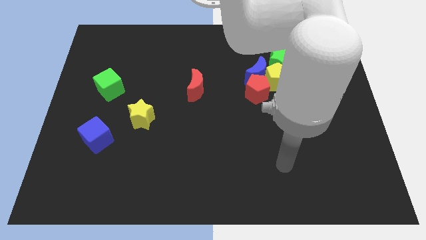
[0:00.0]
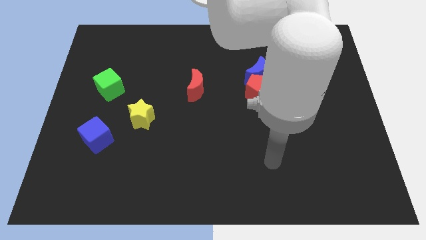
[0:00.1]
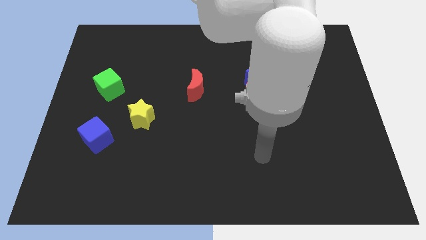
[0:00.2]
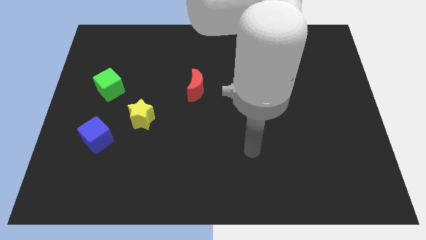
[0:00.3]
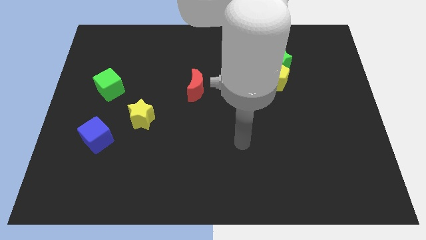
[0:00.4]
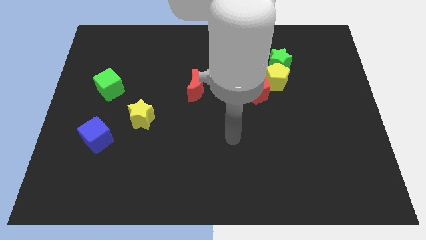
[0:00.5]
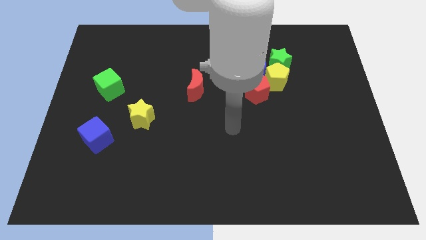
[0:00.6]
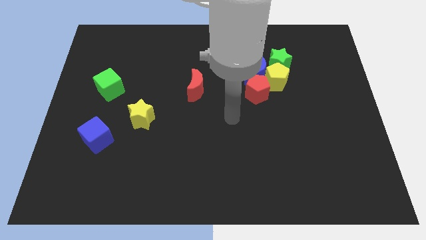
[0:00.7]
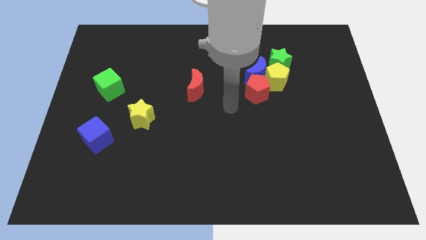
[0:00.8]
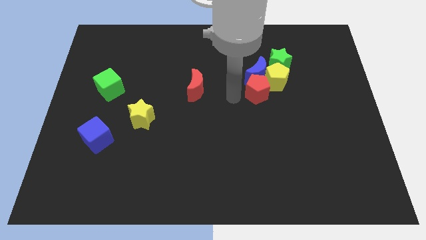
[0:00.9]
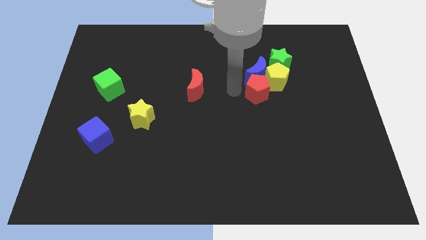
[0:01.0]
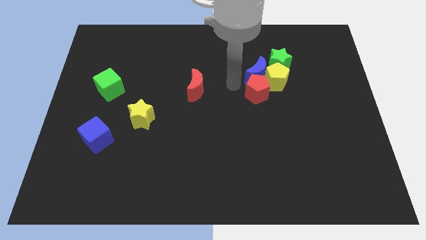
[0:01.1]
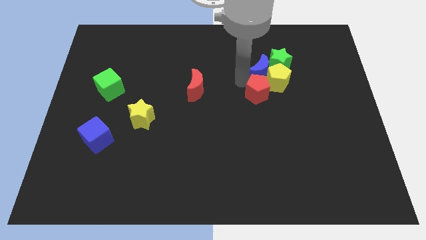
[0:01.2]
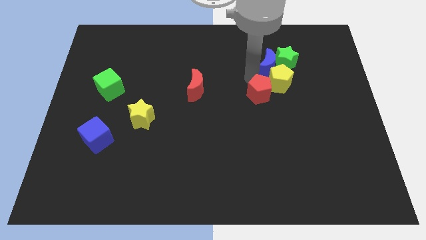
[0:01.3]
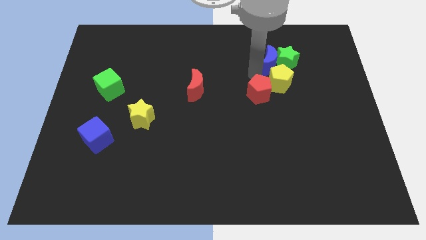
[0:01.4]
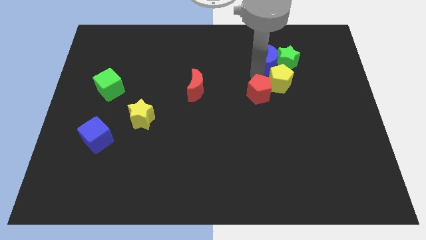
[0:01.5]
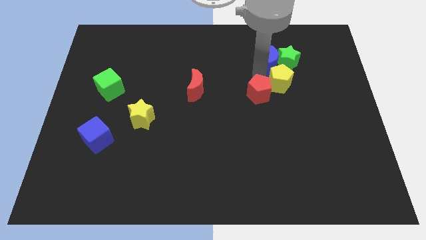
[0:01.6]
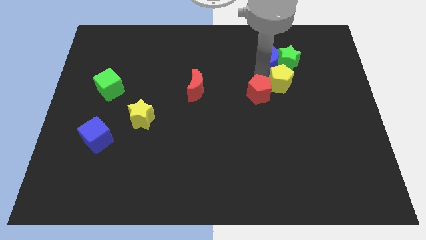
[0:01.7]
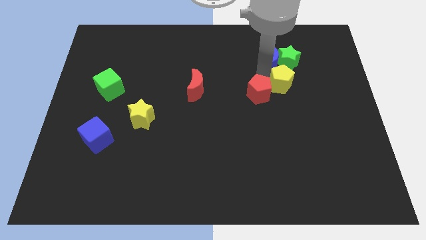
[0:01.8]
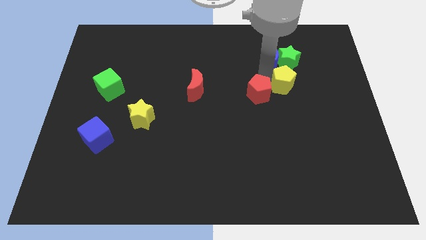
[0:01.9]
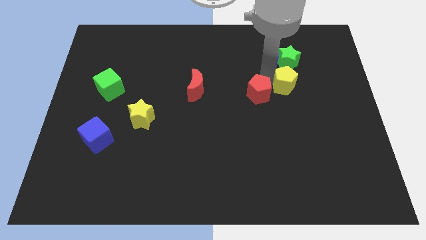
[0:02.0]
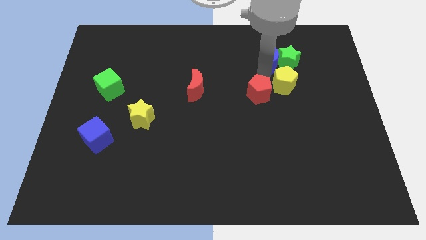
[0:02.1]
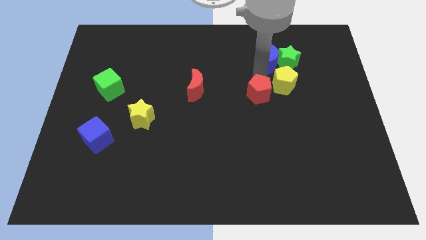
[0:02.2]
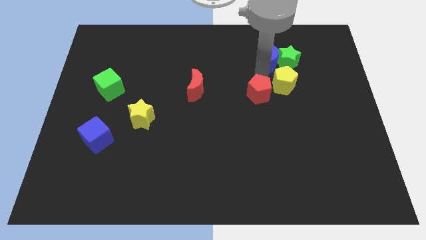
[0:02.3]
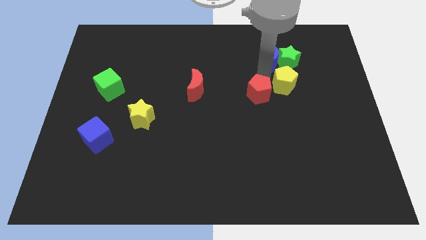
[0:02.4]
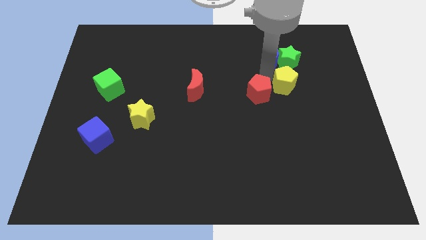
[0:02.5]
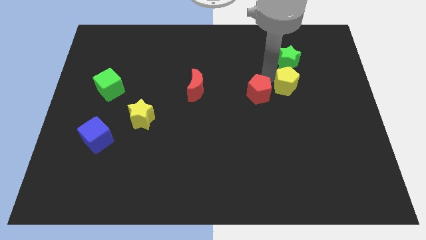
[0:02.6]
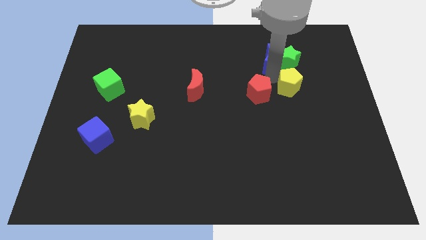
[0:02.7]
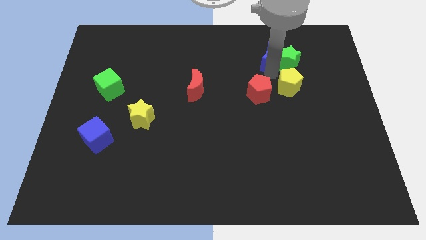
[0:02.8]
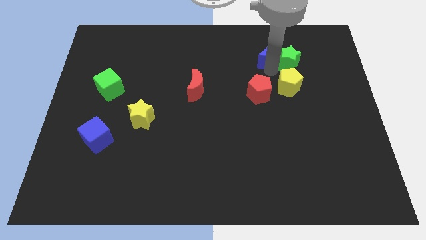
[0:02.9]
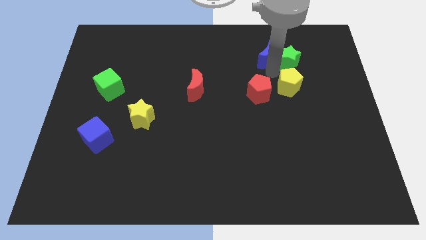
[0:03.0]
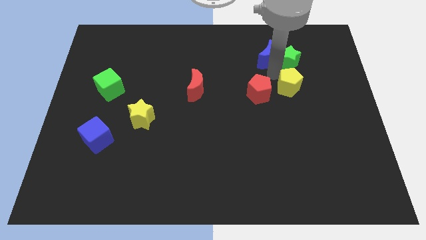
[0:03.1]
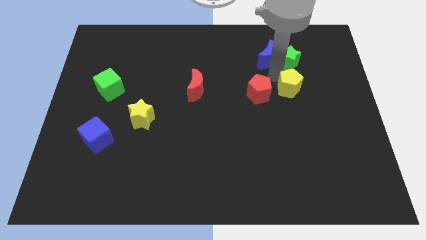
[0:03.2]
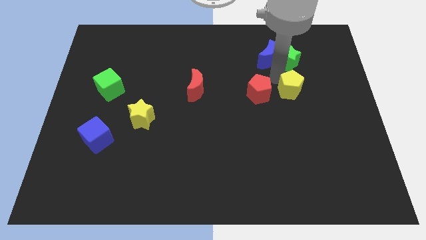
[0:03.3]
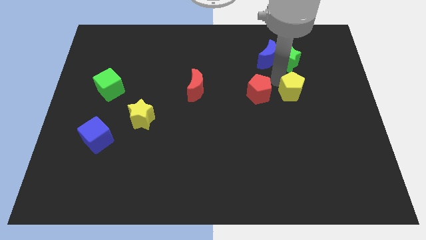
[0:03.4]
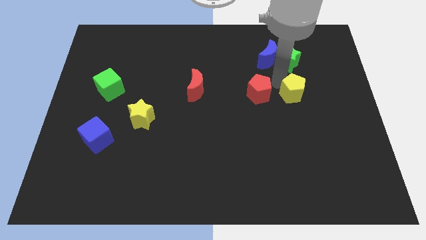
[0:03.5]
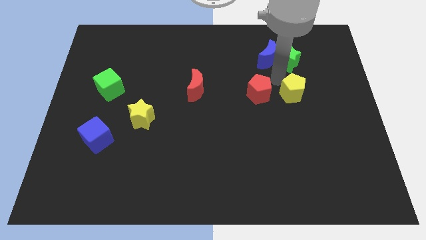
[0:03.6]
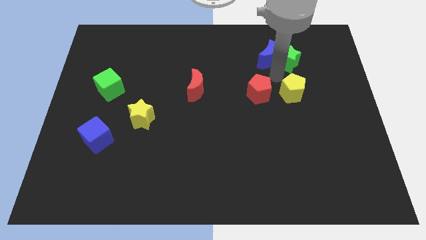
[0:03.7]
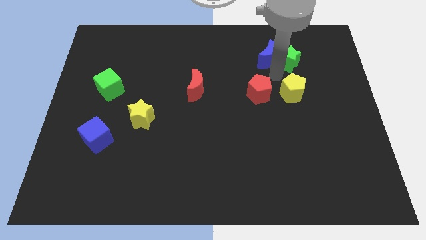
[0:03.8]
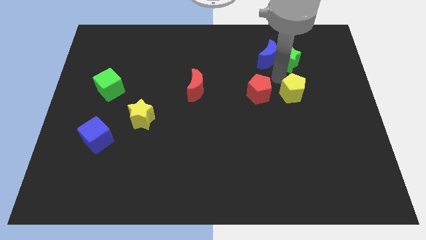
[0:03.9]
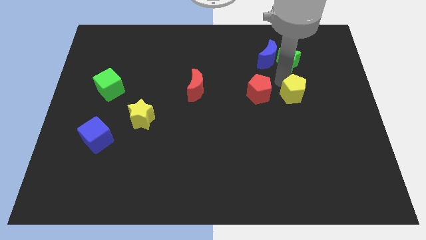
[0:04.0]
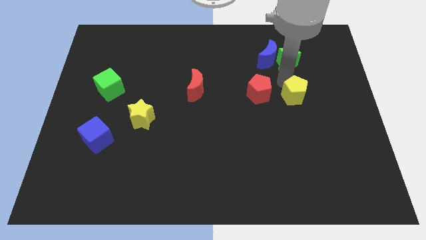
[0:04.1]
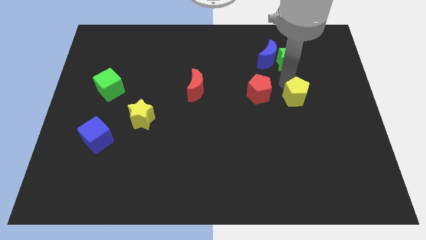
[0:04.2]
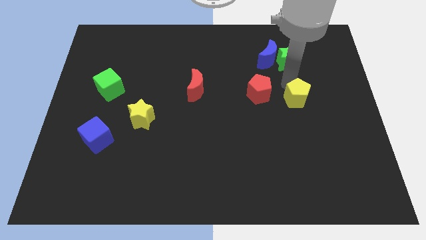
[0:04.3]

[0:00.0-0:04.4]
separate the yellow pentagon from the blue moon, green star, and red pentagon

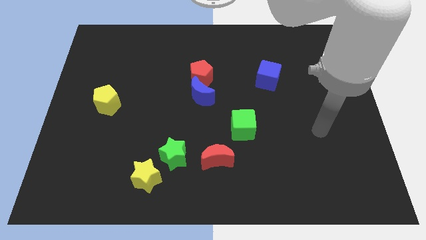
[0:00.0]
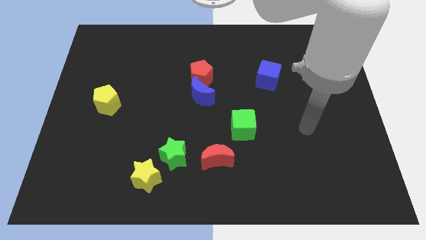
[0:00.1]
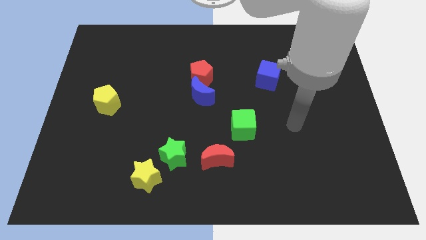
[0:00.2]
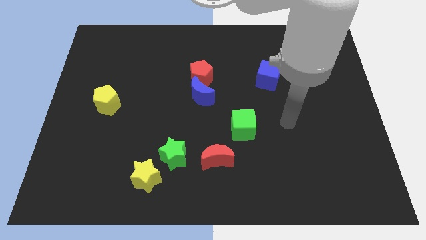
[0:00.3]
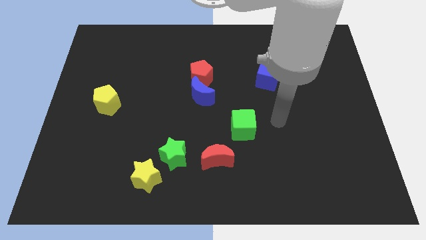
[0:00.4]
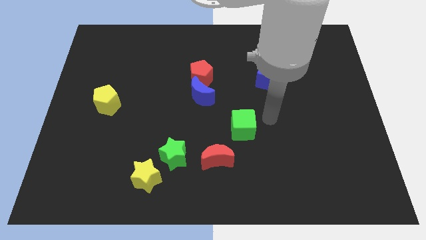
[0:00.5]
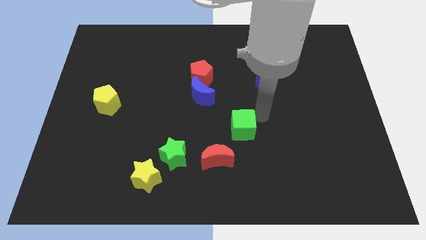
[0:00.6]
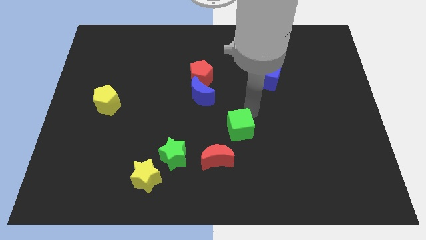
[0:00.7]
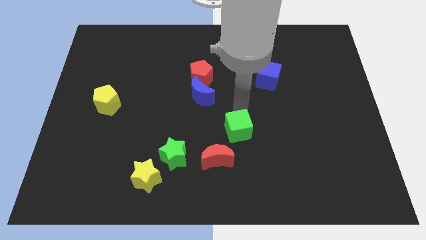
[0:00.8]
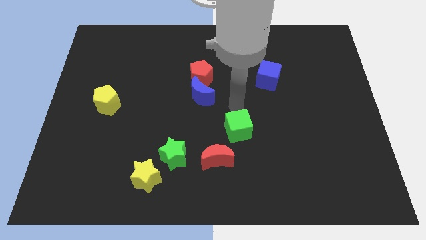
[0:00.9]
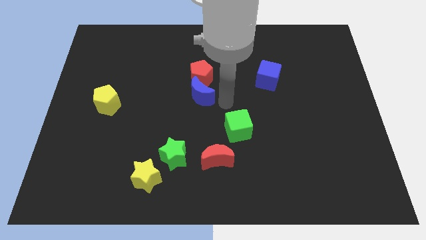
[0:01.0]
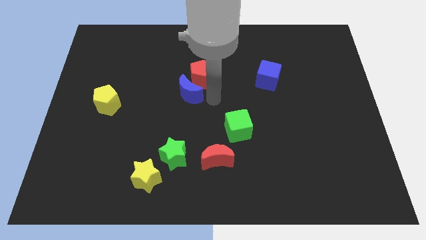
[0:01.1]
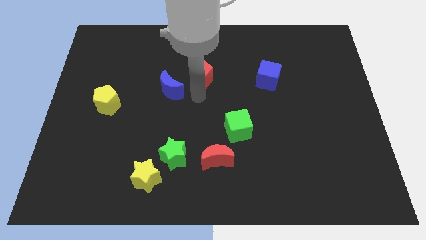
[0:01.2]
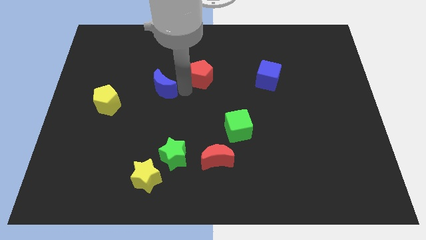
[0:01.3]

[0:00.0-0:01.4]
separate the red pentagon from the blue moon

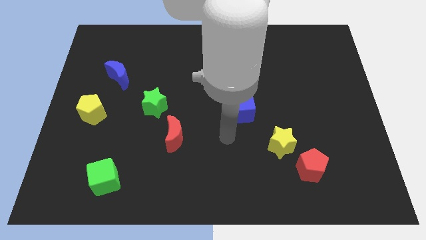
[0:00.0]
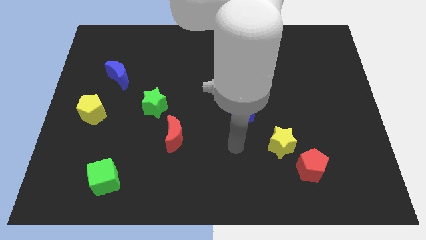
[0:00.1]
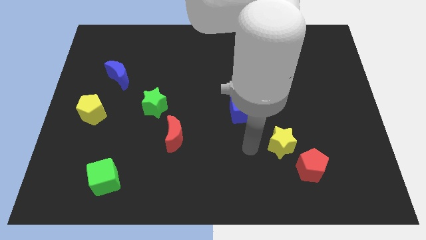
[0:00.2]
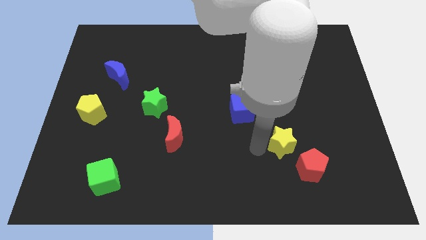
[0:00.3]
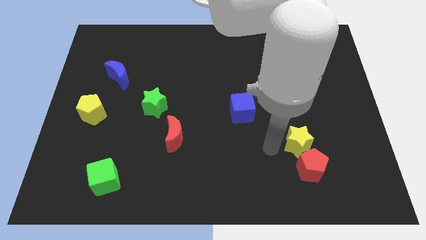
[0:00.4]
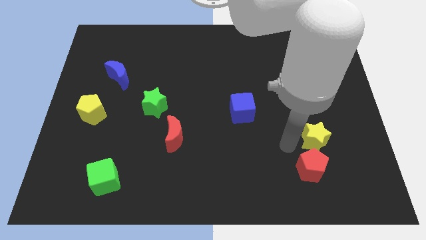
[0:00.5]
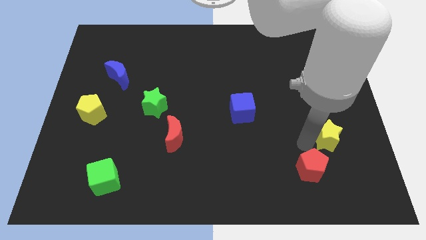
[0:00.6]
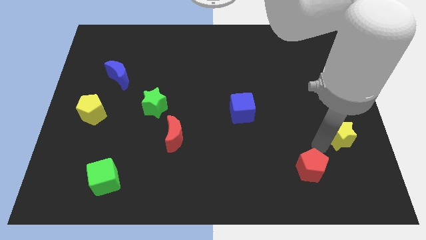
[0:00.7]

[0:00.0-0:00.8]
move the red pentagon away from the yellow star

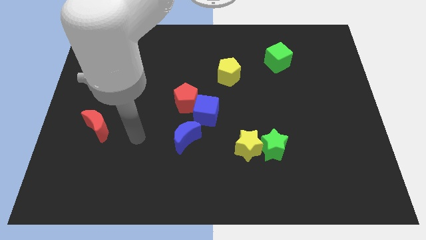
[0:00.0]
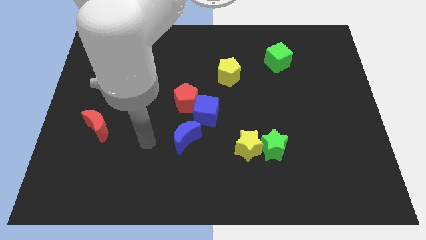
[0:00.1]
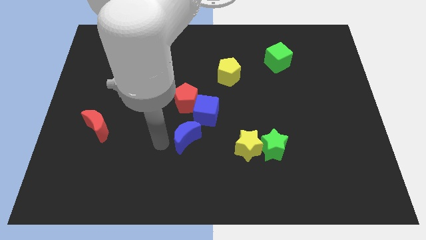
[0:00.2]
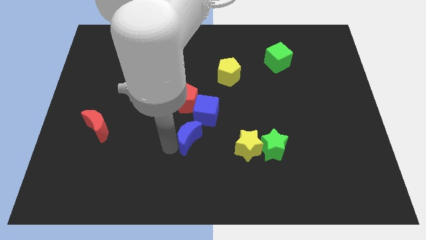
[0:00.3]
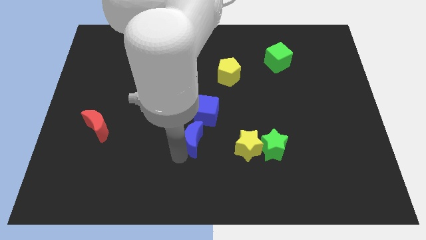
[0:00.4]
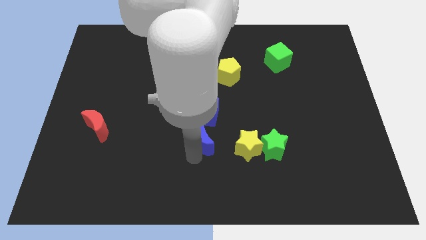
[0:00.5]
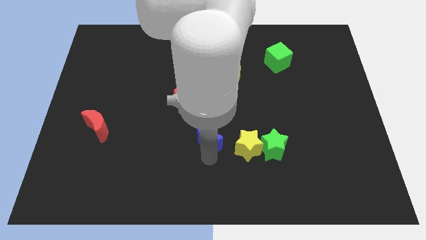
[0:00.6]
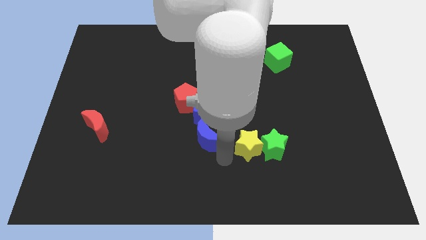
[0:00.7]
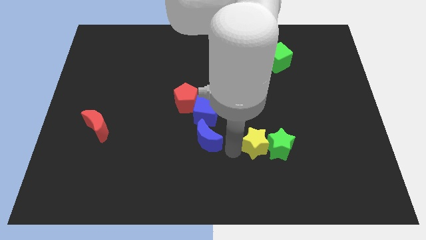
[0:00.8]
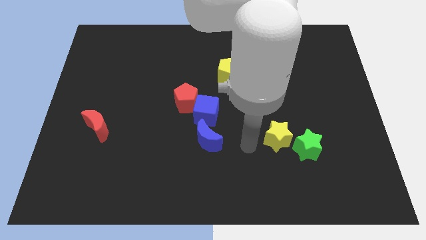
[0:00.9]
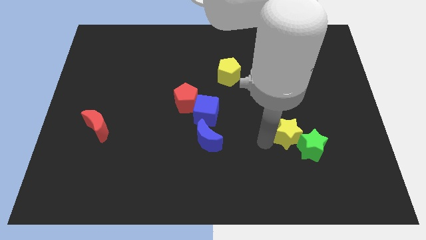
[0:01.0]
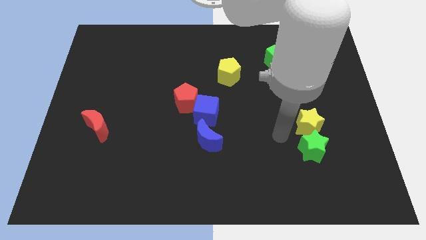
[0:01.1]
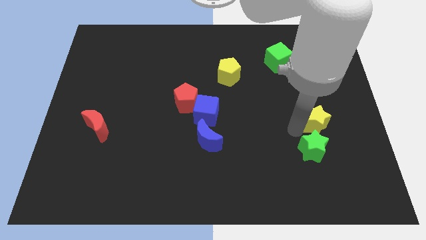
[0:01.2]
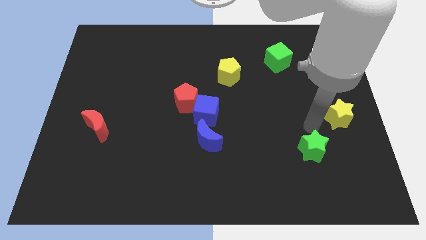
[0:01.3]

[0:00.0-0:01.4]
move the green star away from the yellow star

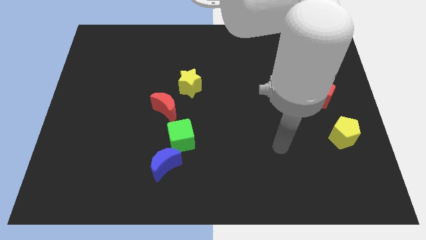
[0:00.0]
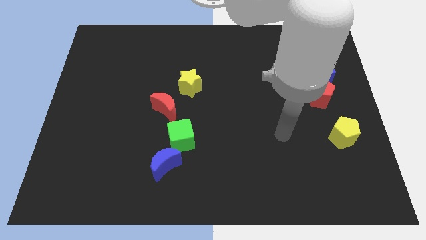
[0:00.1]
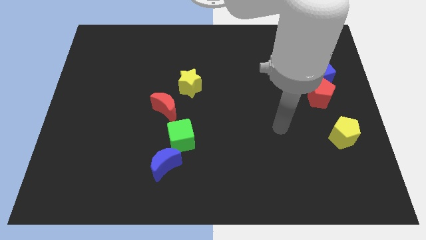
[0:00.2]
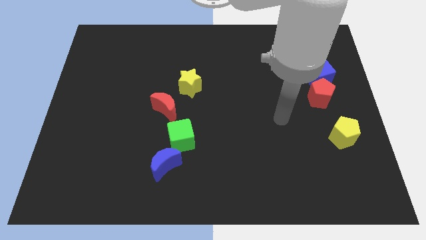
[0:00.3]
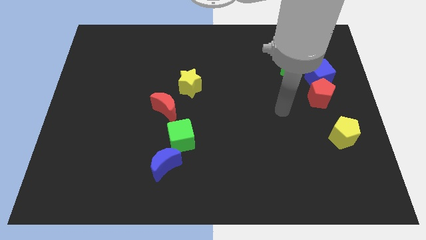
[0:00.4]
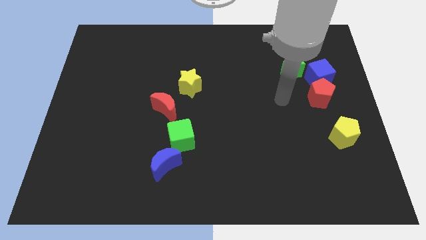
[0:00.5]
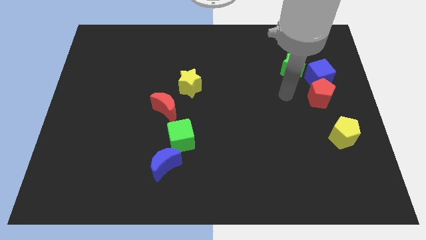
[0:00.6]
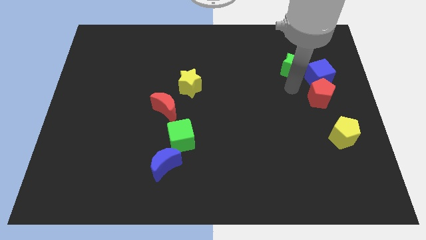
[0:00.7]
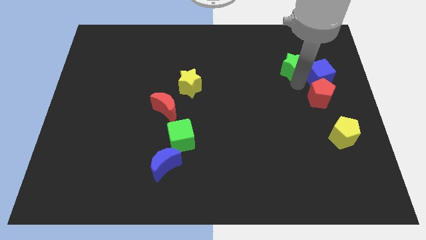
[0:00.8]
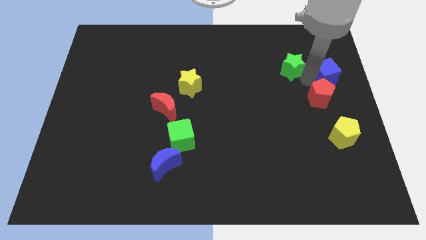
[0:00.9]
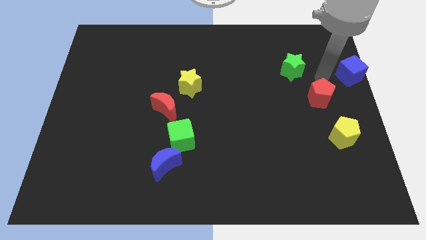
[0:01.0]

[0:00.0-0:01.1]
move the red pentagon away from the blue cube
